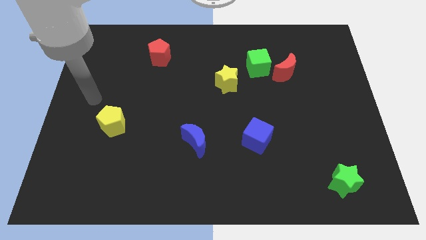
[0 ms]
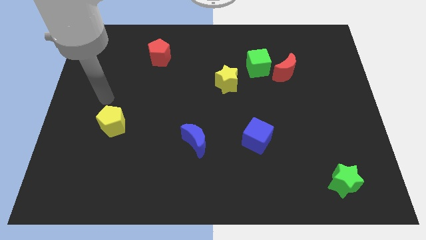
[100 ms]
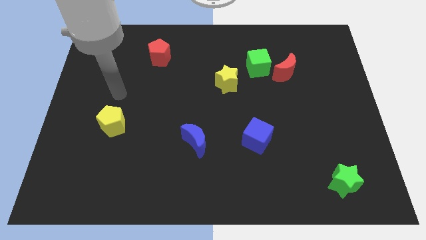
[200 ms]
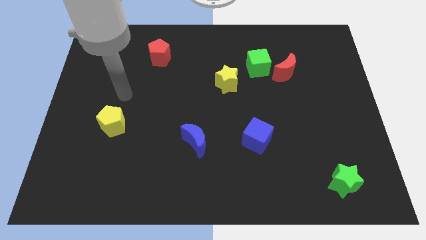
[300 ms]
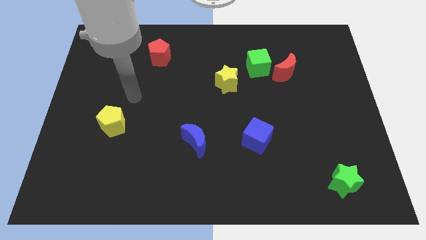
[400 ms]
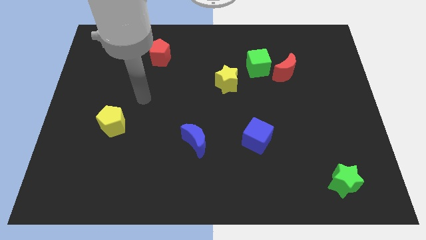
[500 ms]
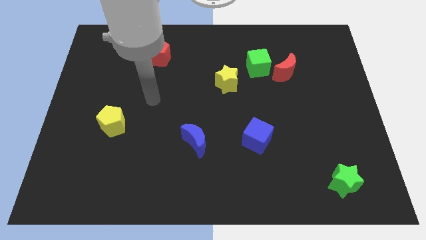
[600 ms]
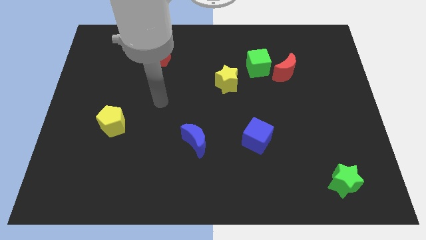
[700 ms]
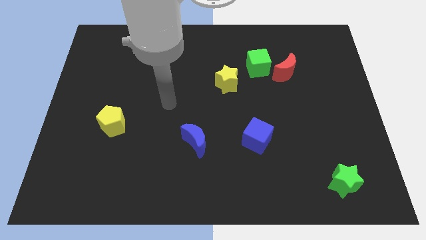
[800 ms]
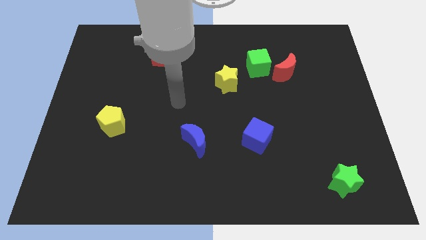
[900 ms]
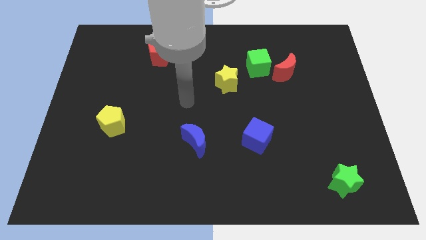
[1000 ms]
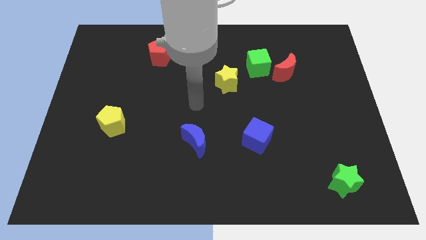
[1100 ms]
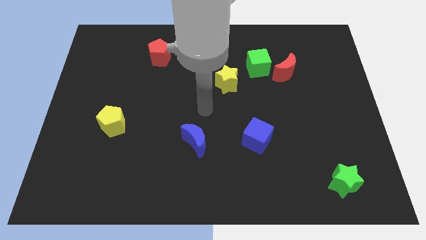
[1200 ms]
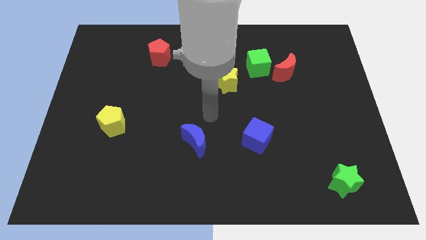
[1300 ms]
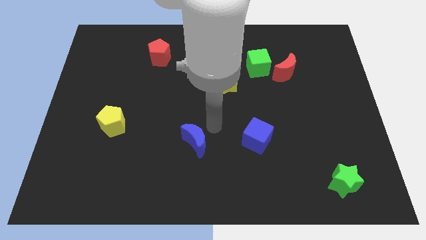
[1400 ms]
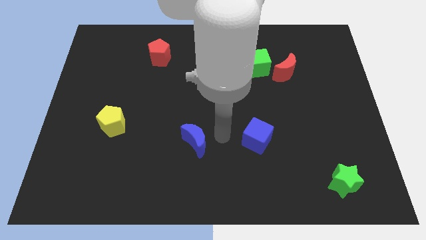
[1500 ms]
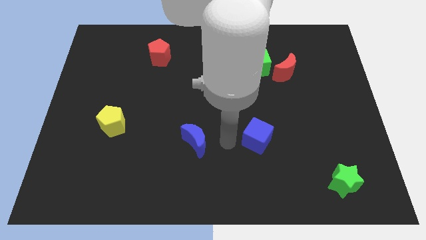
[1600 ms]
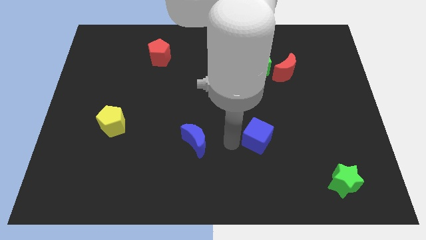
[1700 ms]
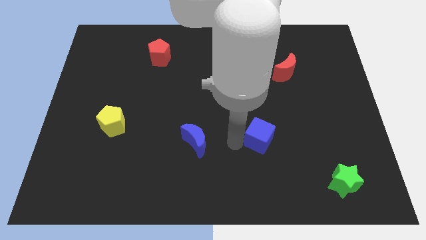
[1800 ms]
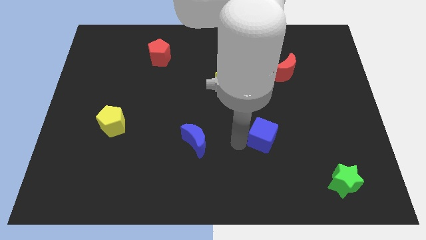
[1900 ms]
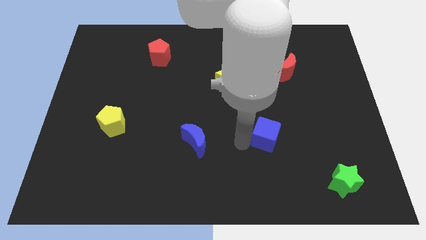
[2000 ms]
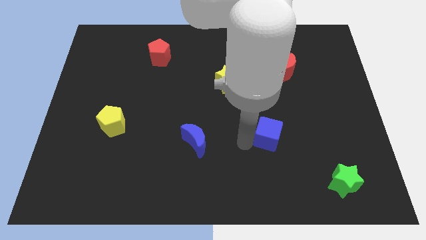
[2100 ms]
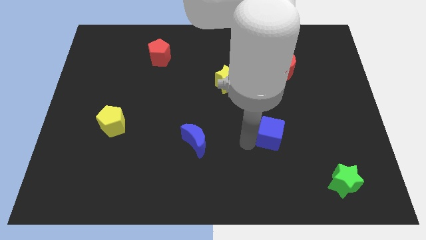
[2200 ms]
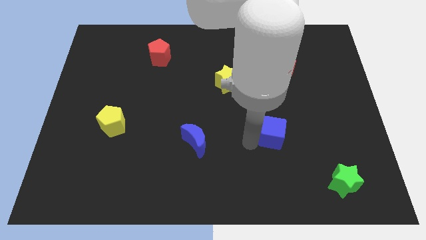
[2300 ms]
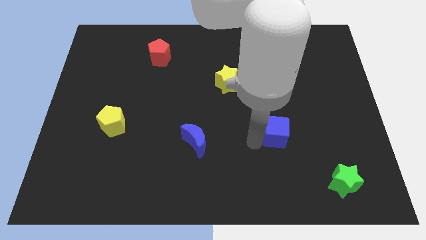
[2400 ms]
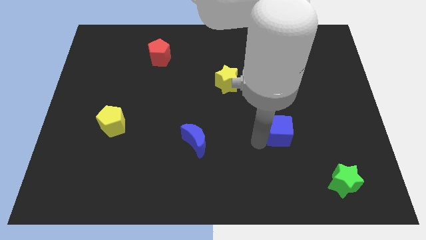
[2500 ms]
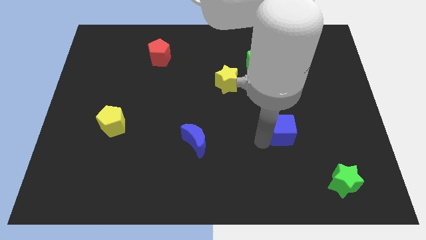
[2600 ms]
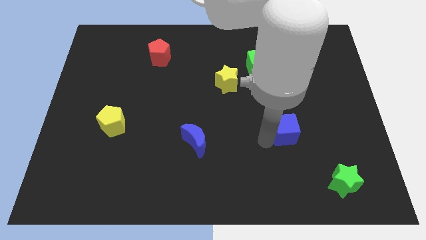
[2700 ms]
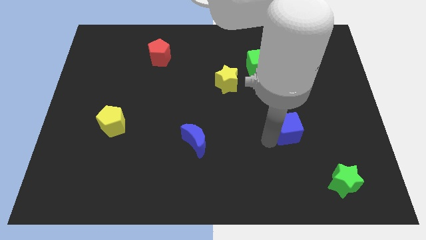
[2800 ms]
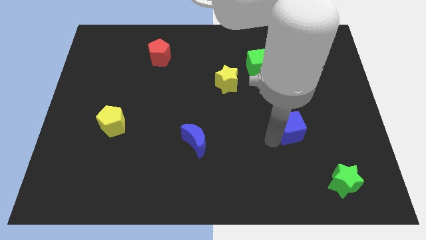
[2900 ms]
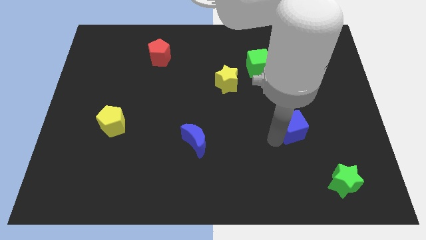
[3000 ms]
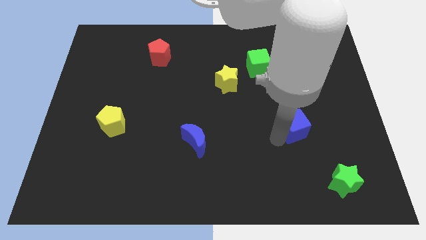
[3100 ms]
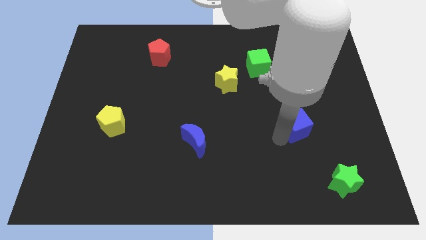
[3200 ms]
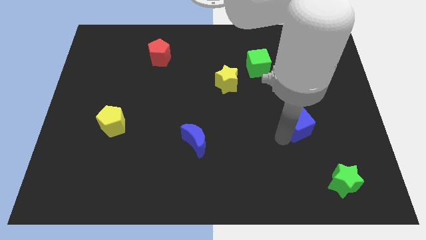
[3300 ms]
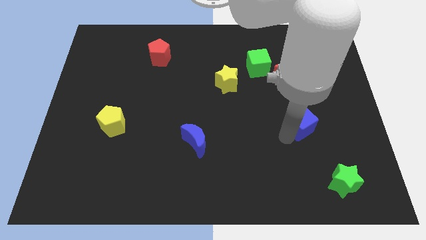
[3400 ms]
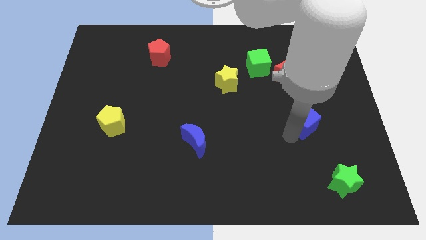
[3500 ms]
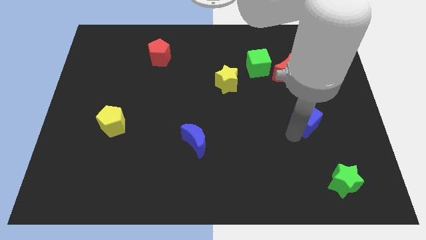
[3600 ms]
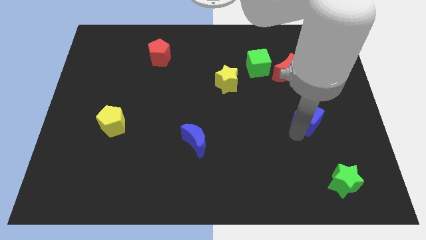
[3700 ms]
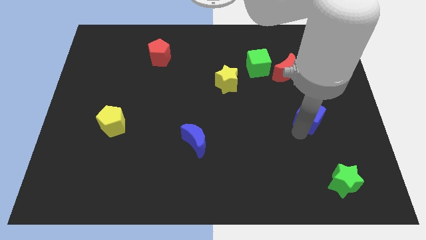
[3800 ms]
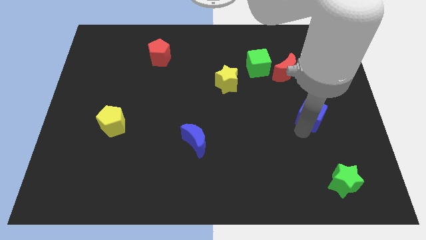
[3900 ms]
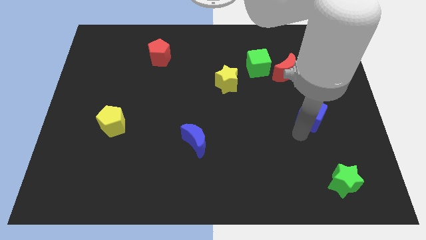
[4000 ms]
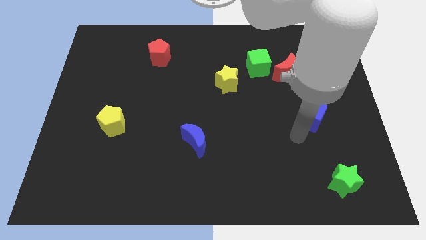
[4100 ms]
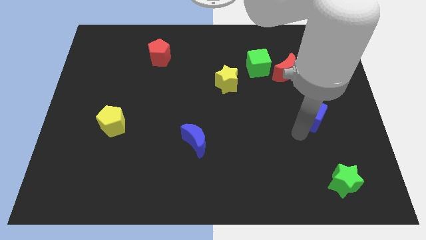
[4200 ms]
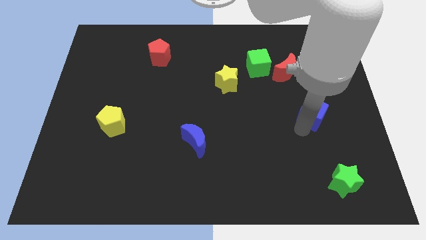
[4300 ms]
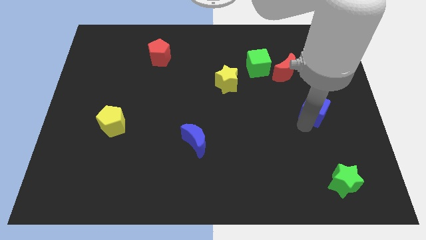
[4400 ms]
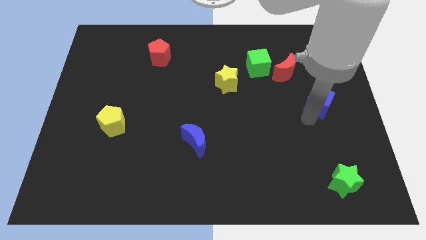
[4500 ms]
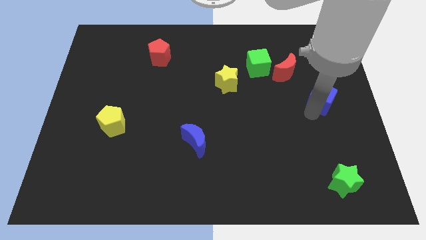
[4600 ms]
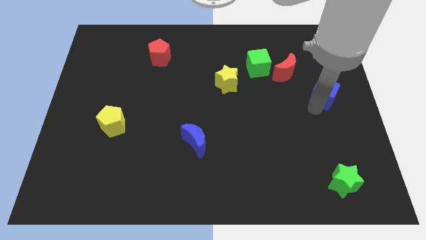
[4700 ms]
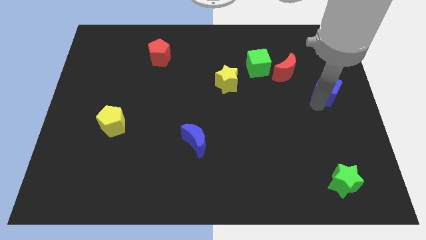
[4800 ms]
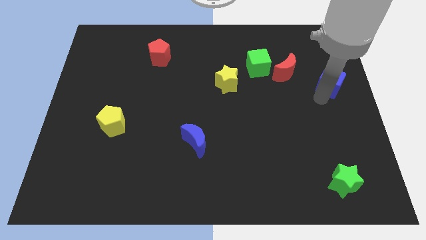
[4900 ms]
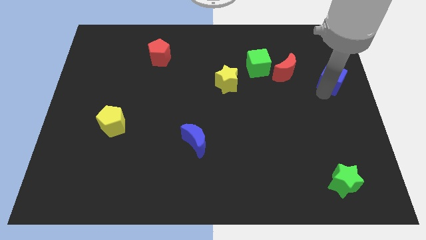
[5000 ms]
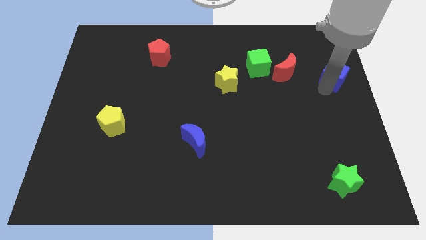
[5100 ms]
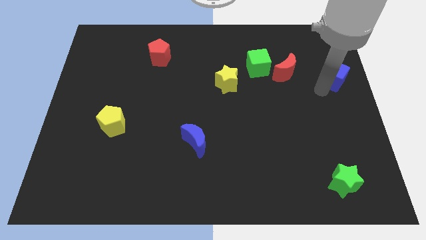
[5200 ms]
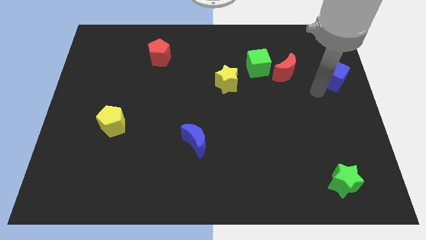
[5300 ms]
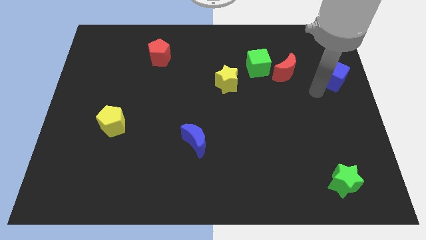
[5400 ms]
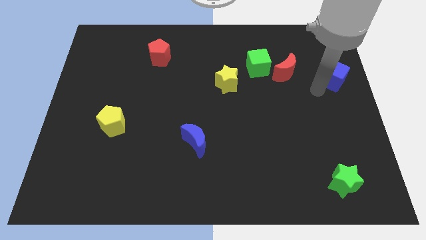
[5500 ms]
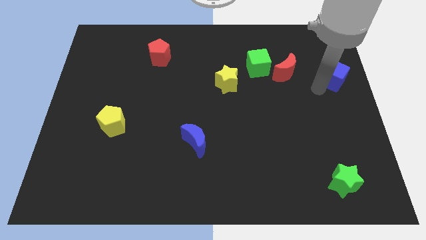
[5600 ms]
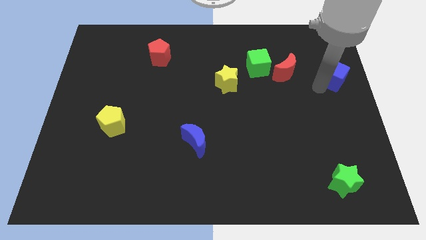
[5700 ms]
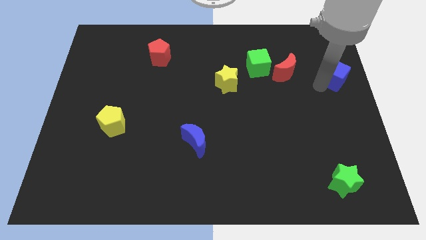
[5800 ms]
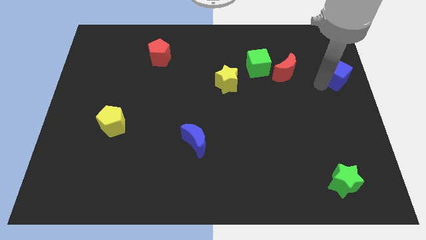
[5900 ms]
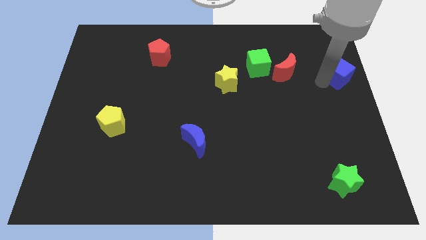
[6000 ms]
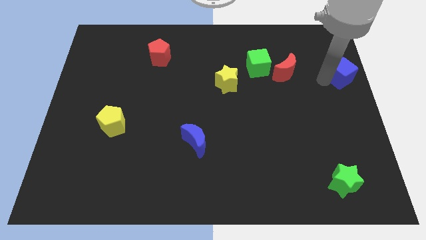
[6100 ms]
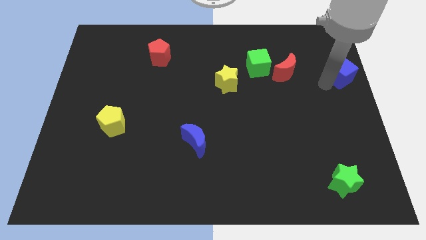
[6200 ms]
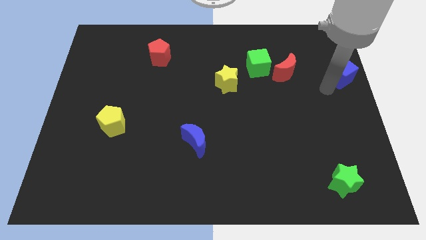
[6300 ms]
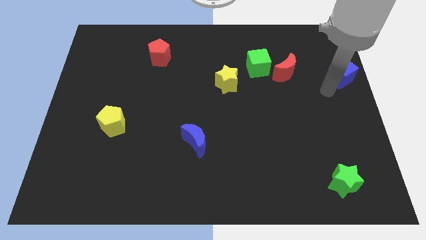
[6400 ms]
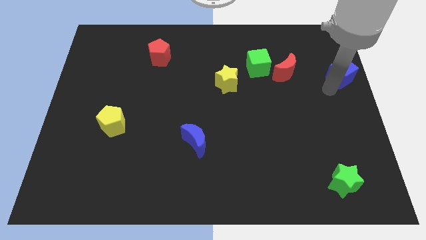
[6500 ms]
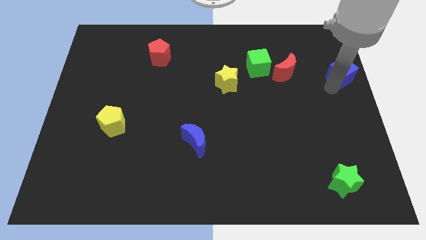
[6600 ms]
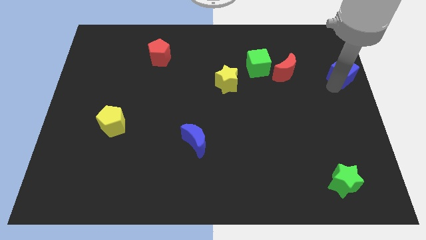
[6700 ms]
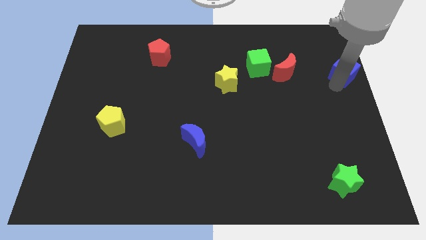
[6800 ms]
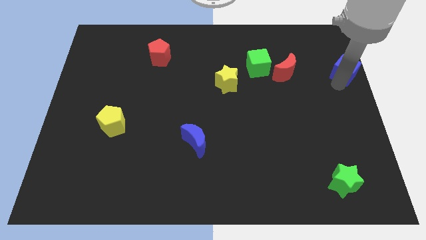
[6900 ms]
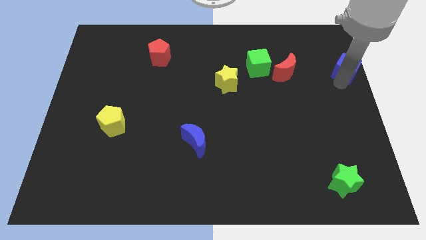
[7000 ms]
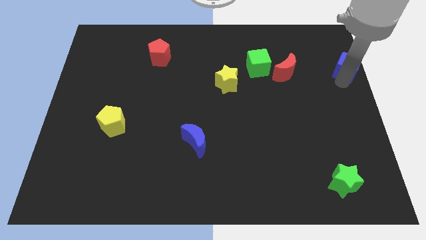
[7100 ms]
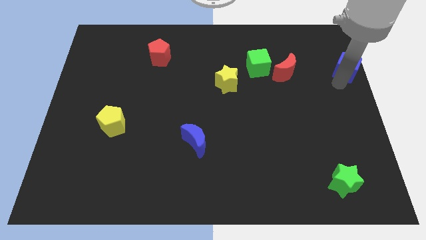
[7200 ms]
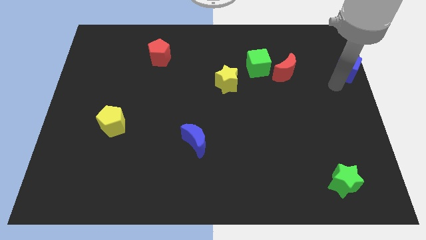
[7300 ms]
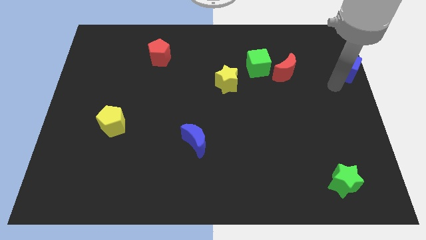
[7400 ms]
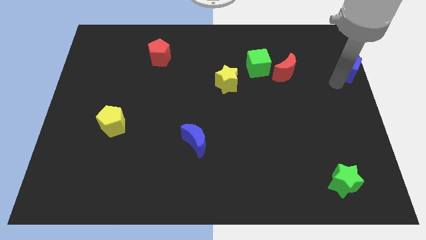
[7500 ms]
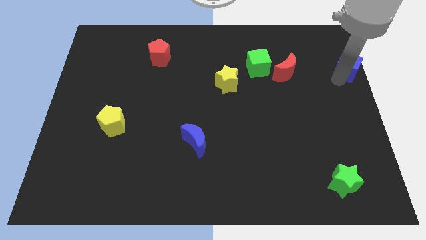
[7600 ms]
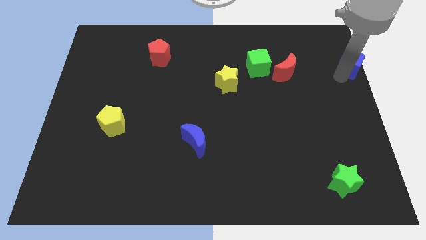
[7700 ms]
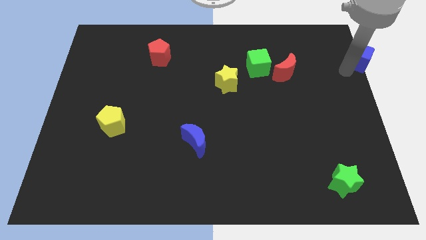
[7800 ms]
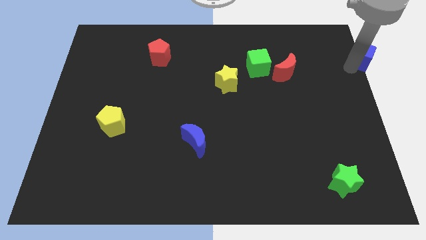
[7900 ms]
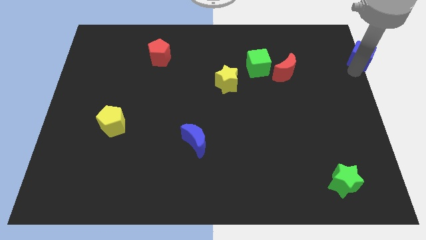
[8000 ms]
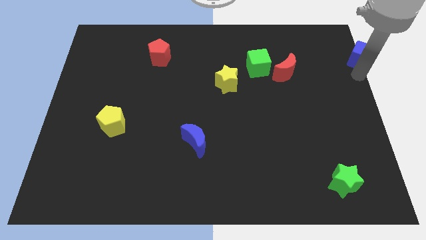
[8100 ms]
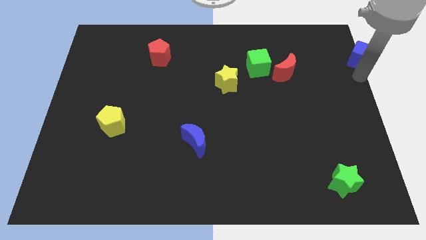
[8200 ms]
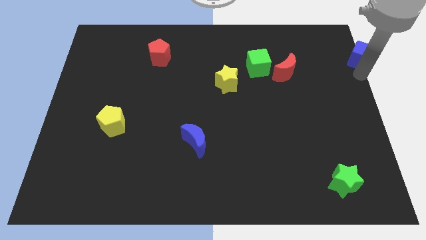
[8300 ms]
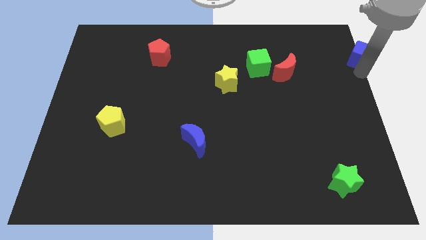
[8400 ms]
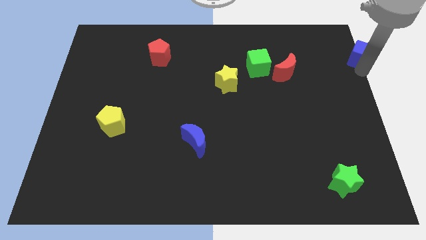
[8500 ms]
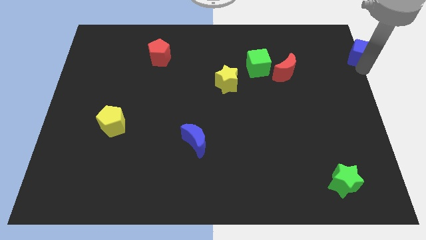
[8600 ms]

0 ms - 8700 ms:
slide the blue cube to the top right

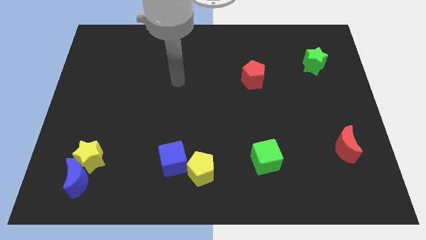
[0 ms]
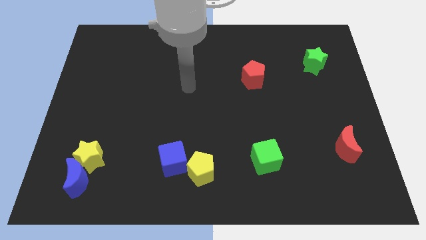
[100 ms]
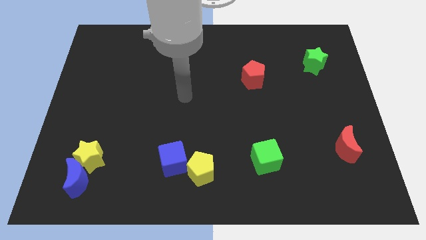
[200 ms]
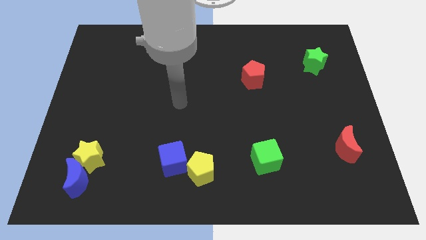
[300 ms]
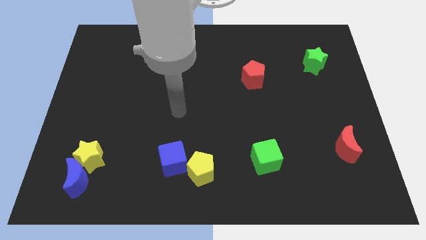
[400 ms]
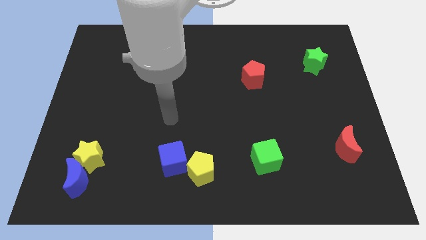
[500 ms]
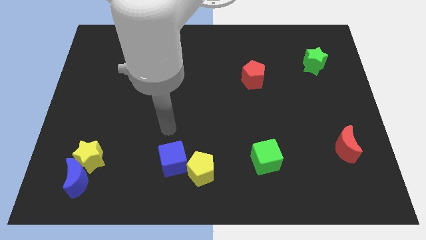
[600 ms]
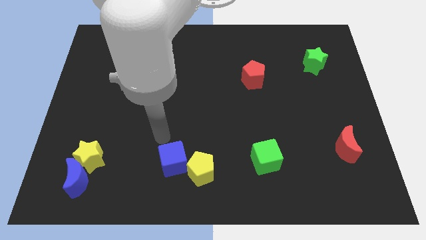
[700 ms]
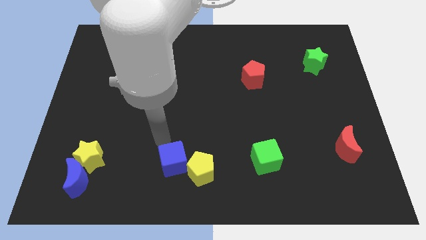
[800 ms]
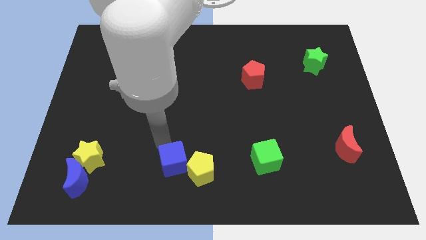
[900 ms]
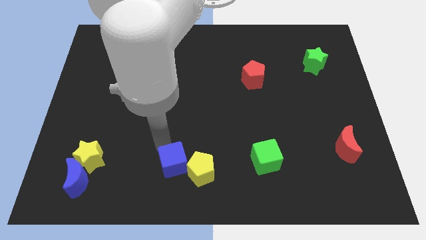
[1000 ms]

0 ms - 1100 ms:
put the blue cube to the bottom side
